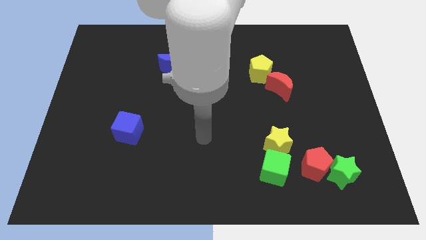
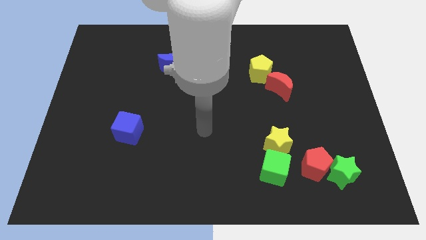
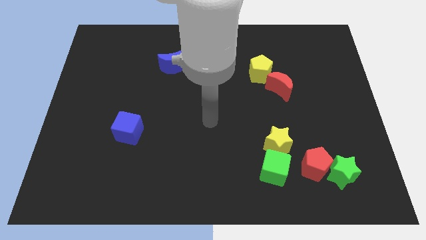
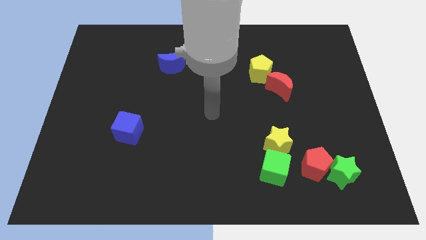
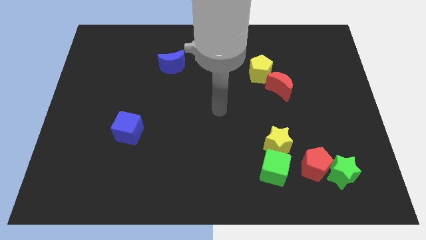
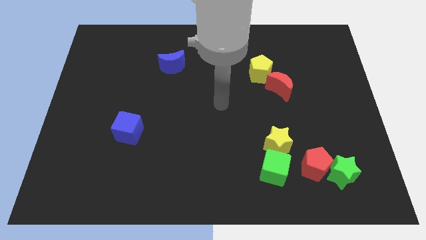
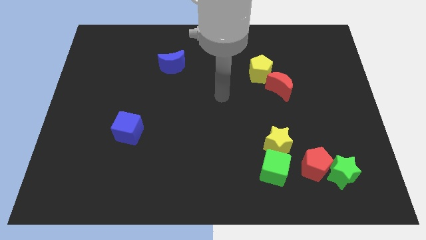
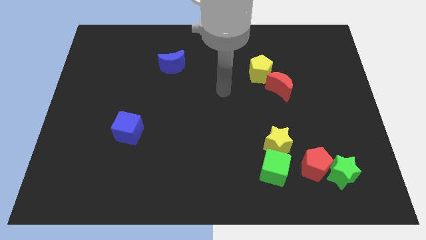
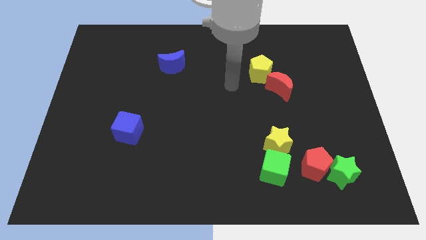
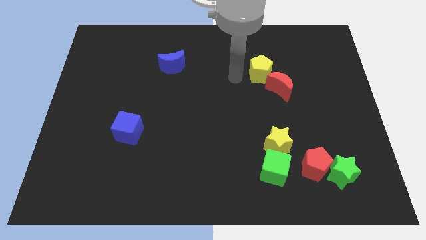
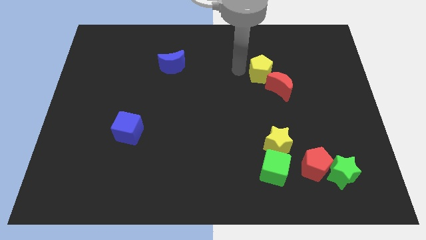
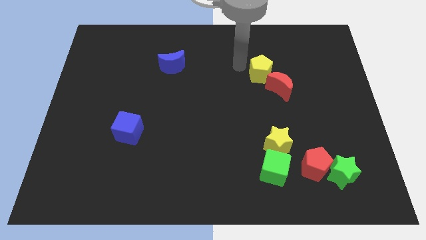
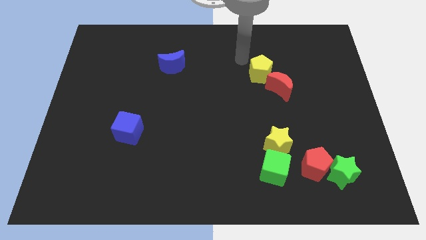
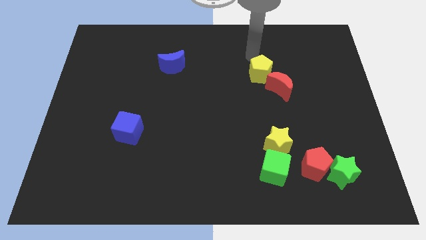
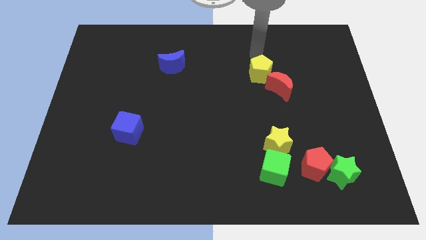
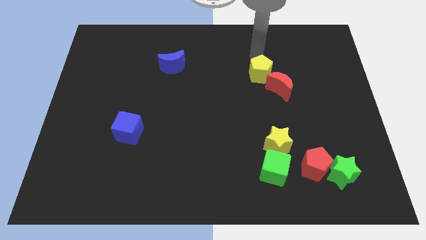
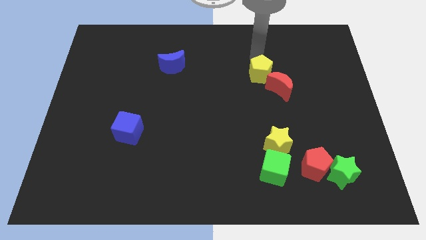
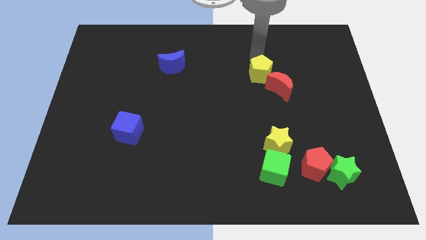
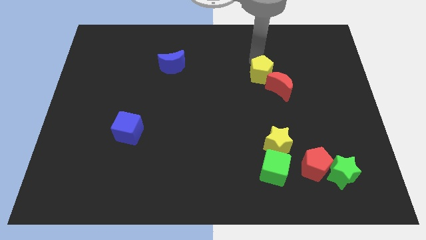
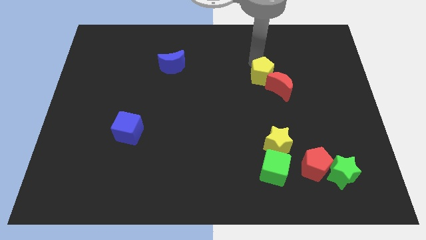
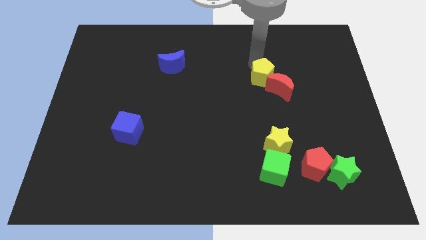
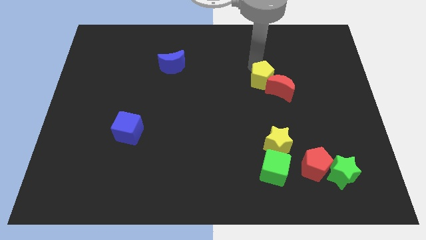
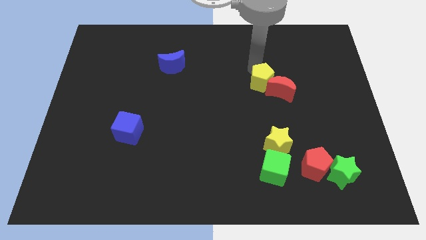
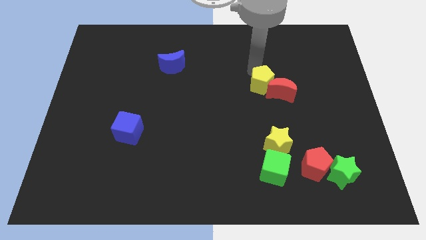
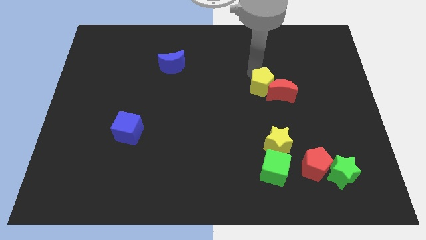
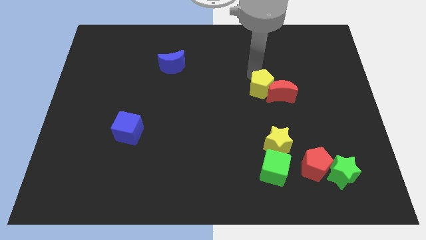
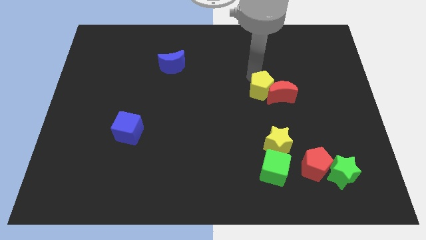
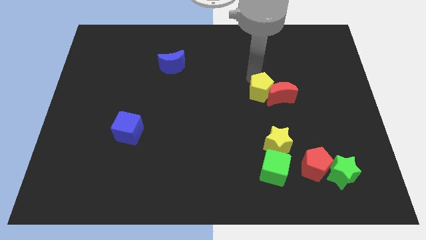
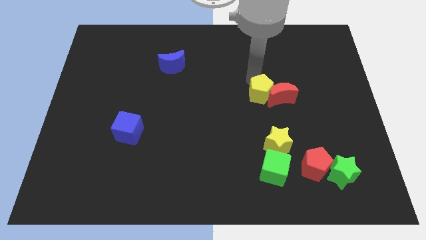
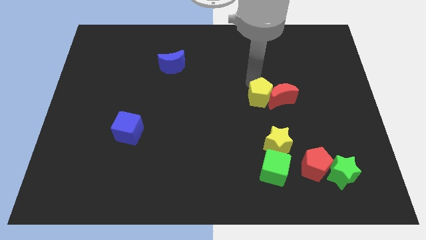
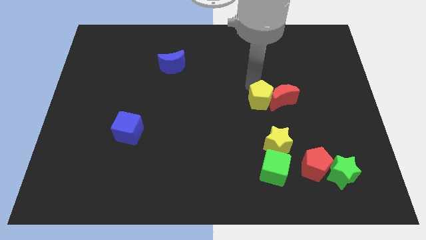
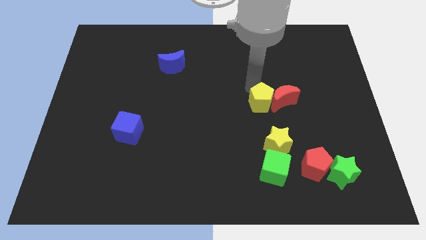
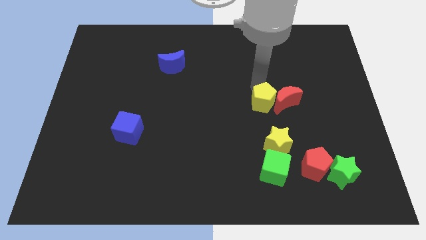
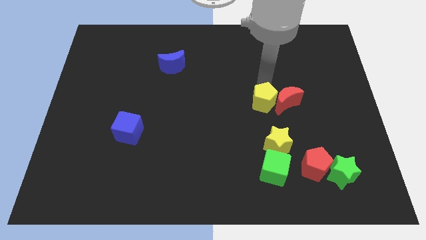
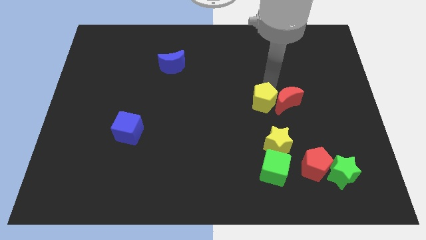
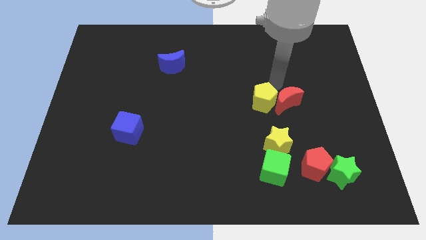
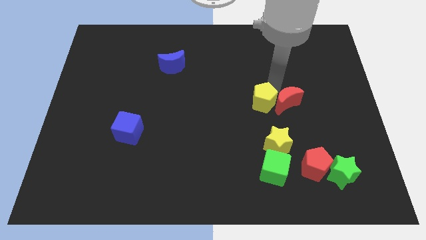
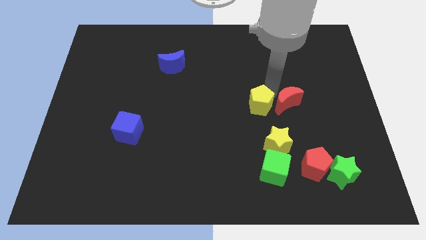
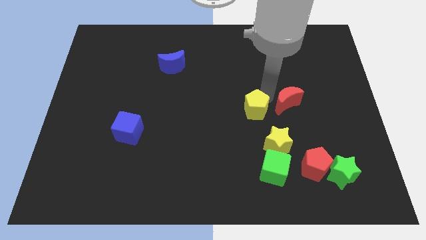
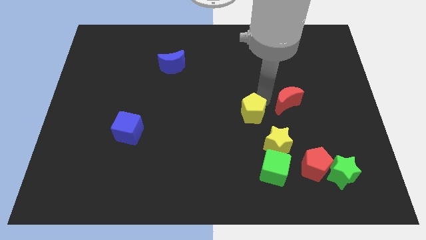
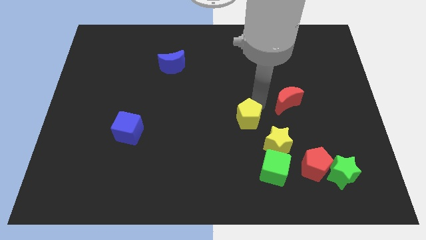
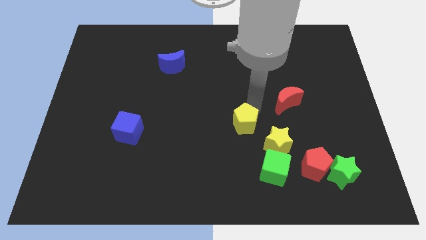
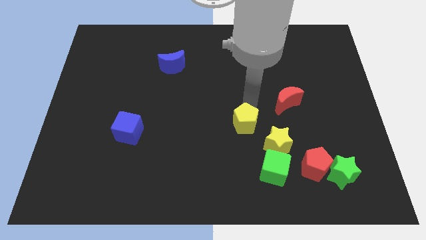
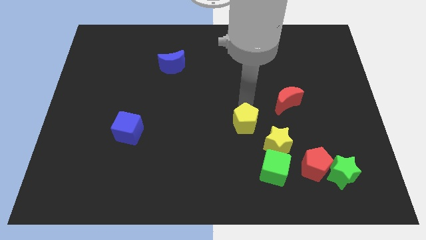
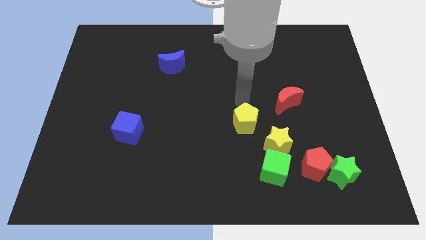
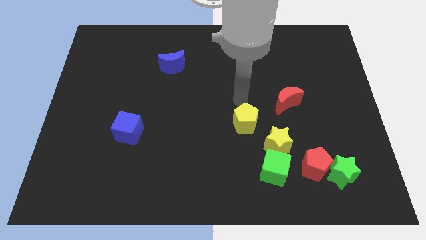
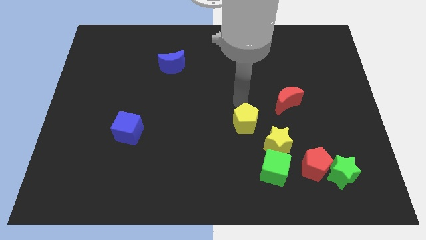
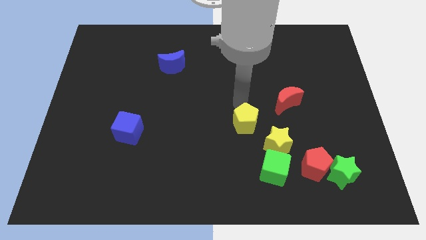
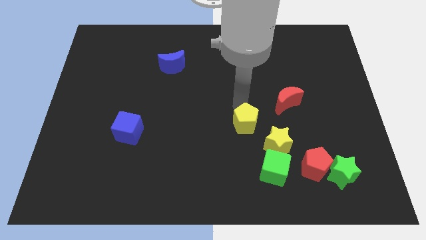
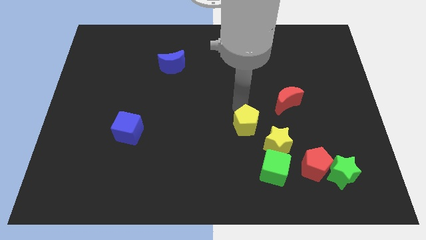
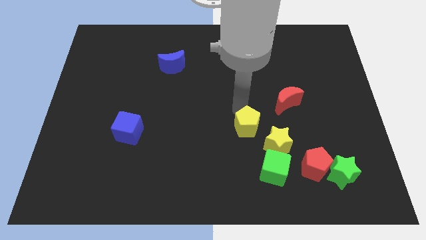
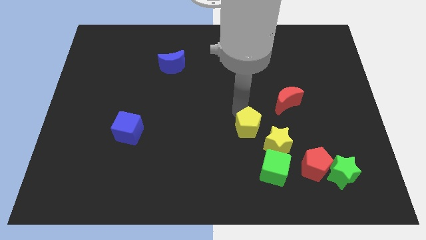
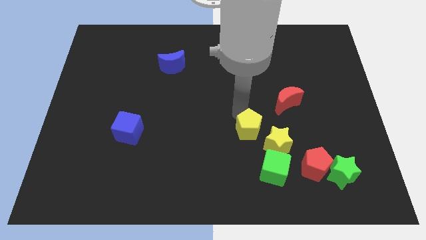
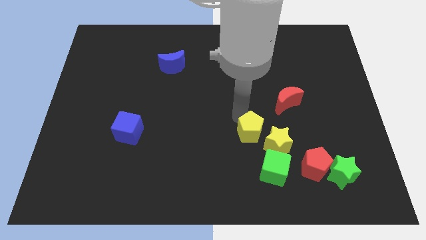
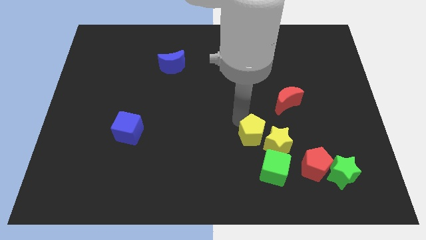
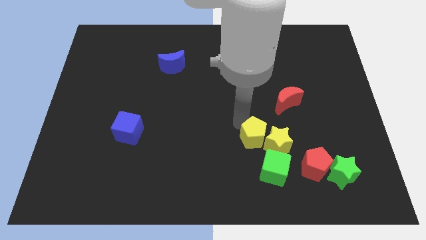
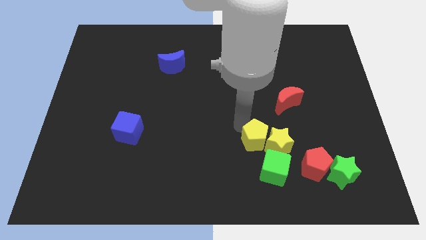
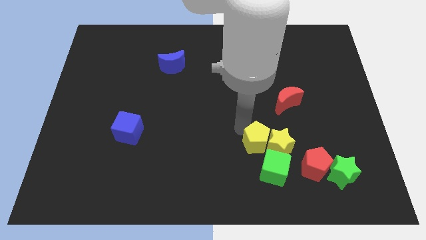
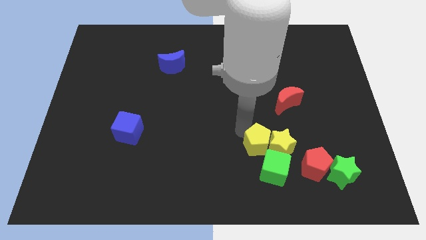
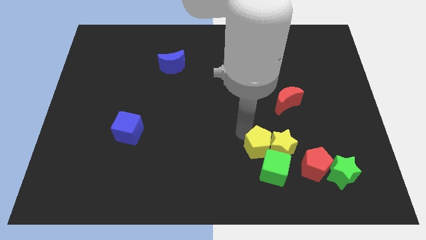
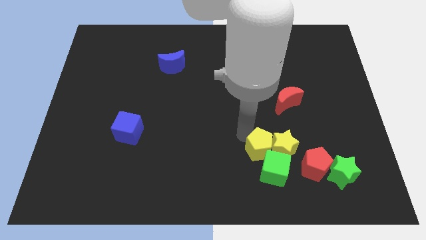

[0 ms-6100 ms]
put the yellow pentagon towards the green cube

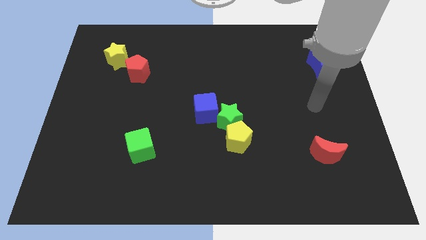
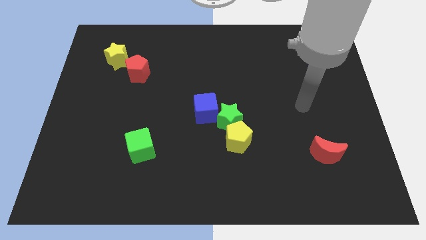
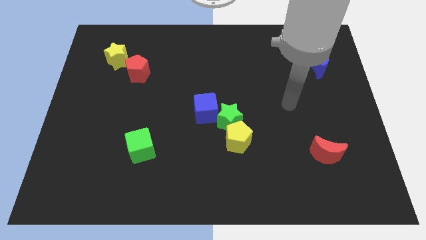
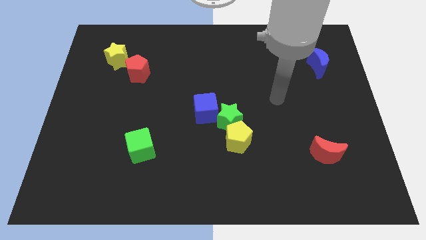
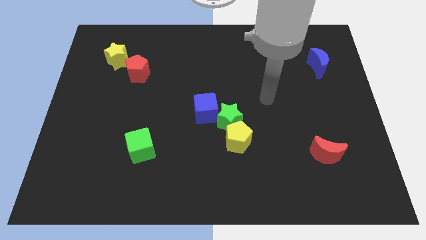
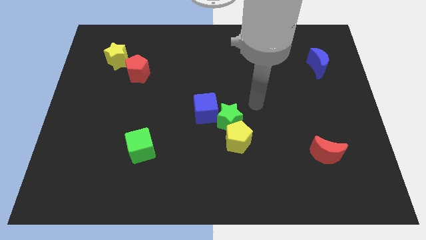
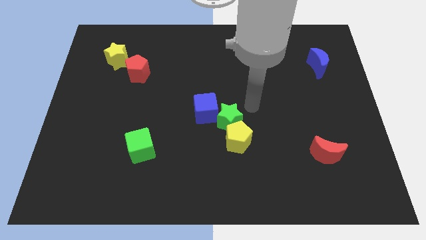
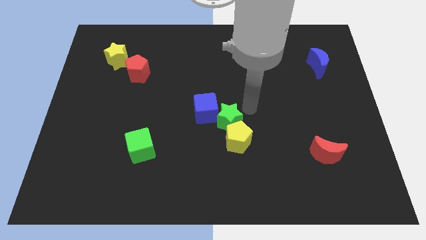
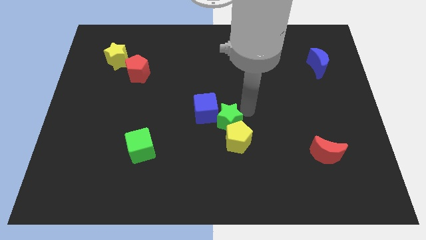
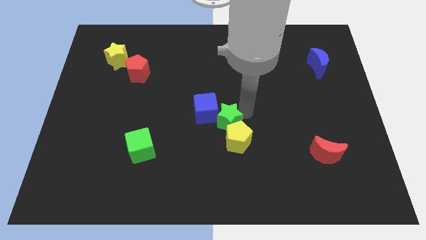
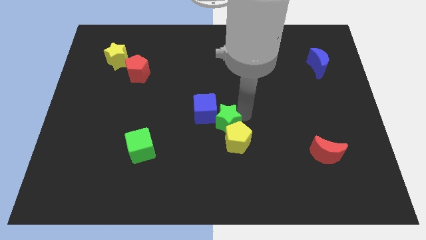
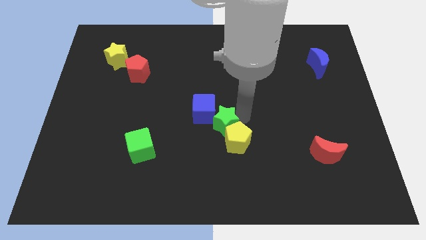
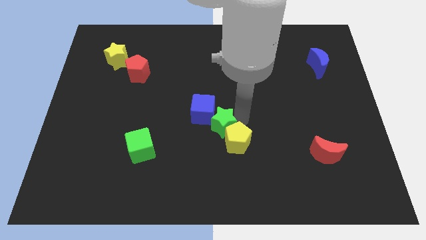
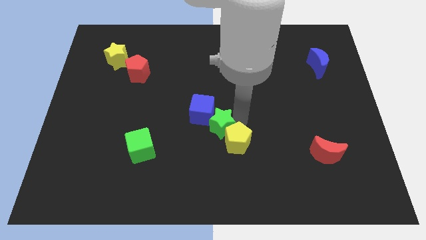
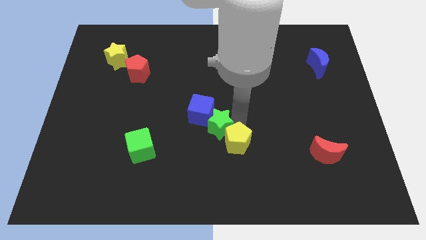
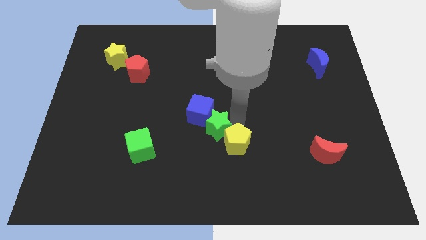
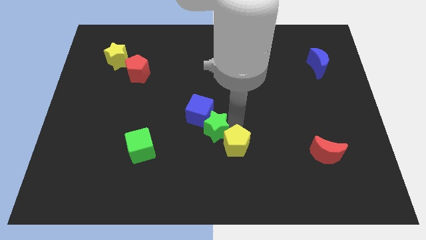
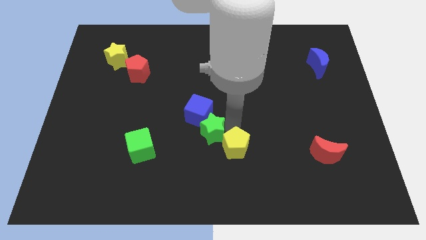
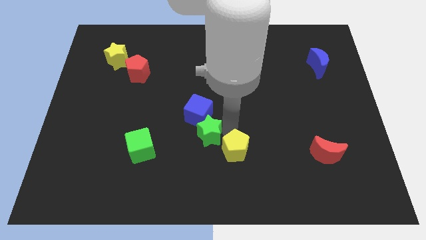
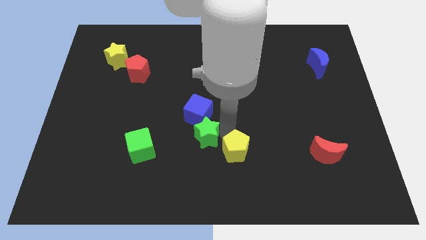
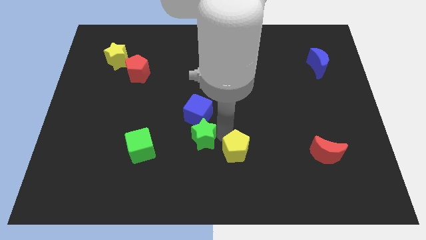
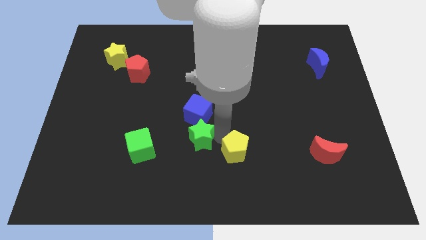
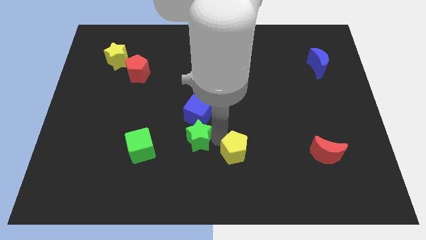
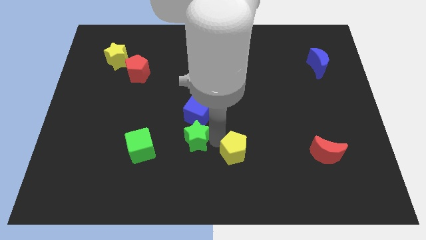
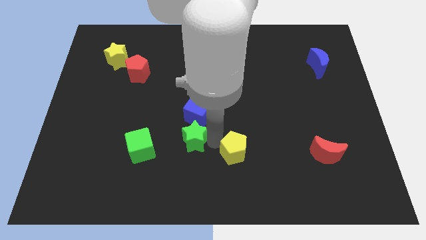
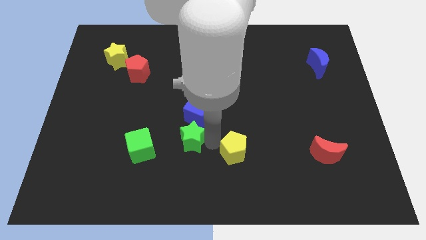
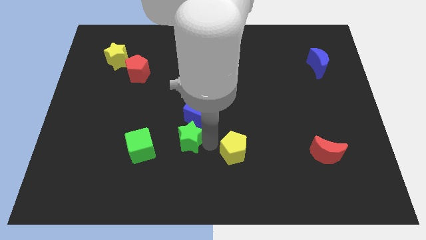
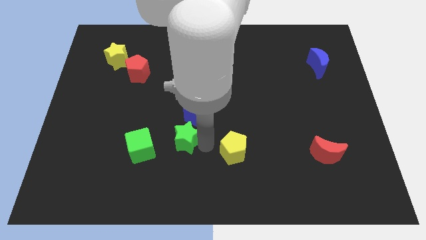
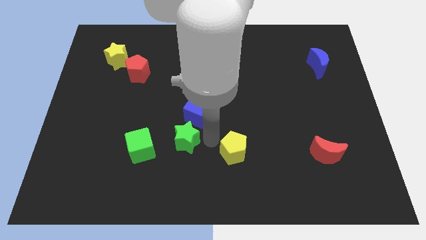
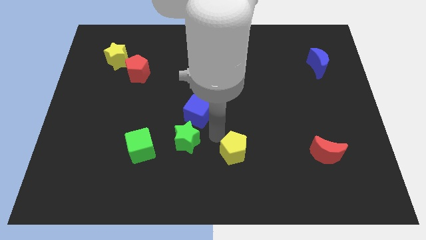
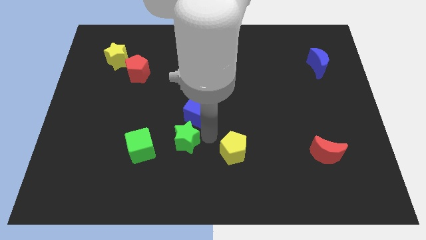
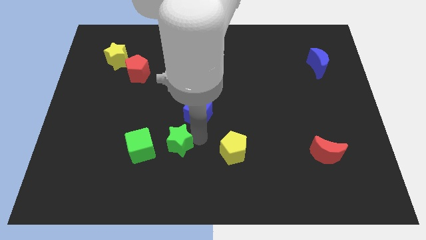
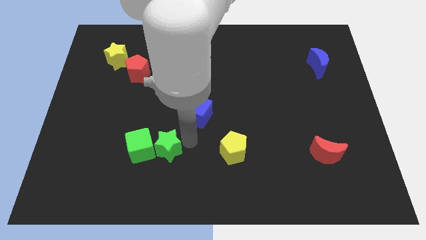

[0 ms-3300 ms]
slide the green star next to the green cube
